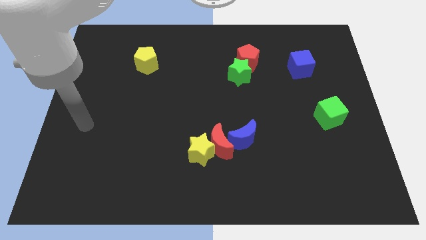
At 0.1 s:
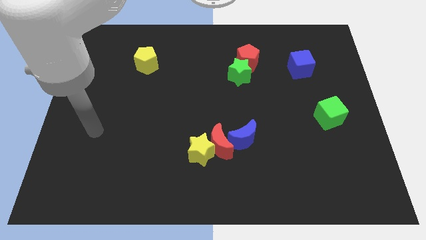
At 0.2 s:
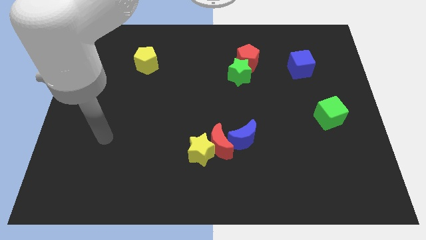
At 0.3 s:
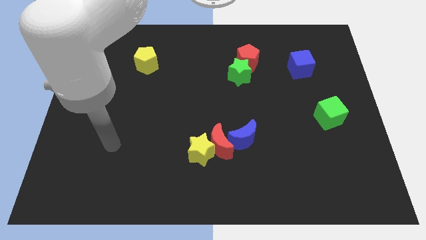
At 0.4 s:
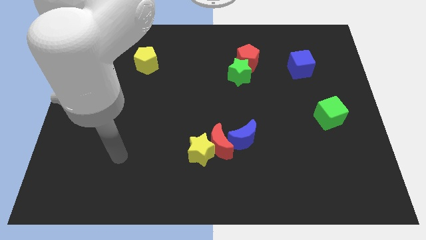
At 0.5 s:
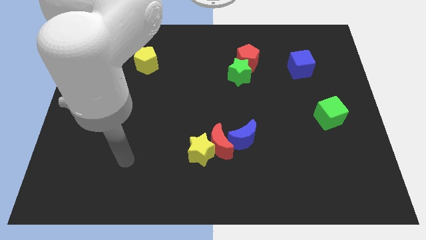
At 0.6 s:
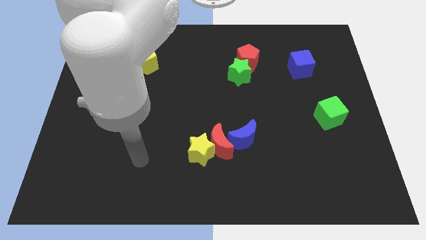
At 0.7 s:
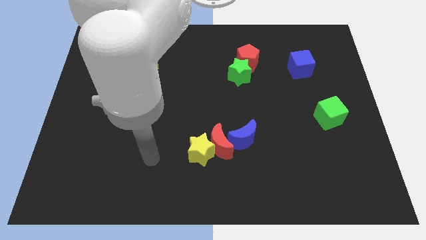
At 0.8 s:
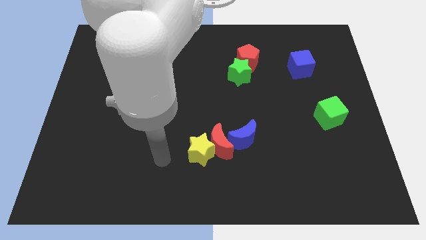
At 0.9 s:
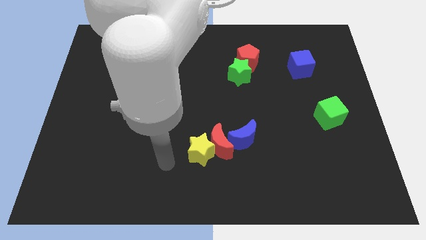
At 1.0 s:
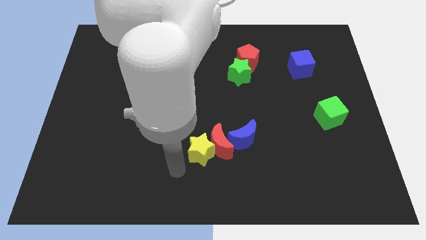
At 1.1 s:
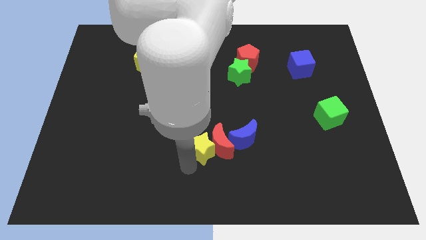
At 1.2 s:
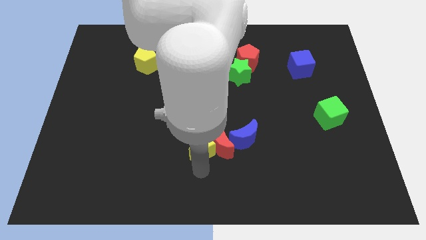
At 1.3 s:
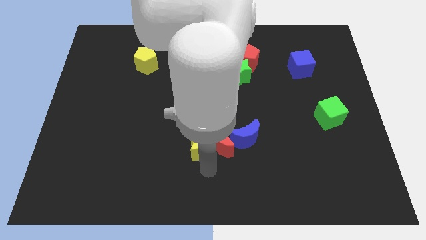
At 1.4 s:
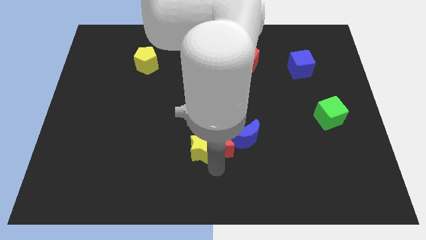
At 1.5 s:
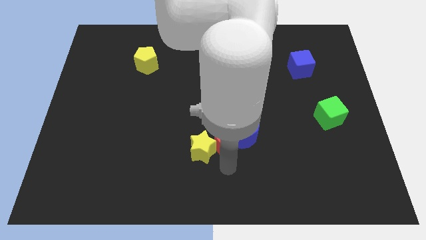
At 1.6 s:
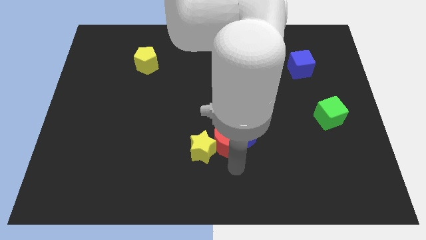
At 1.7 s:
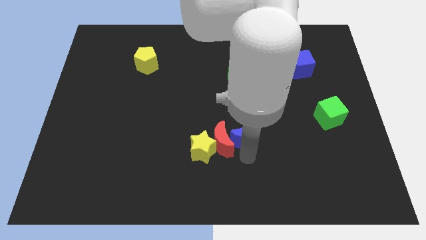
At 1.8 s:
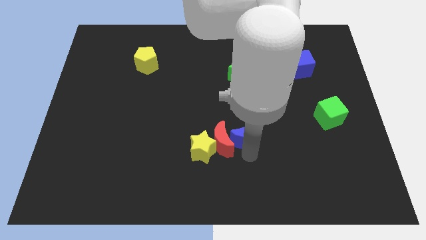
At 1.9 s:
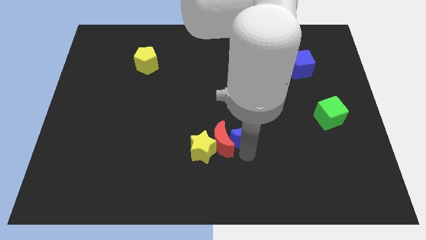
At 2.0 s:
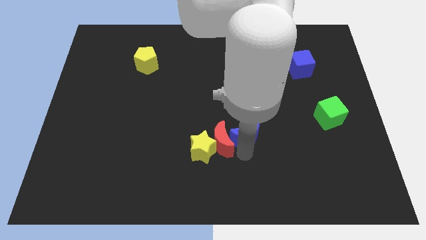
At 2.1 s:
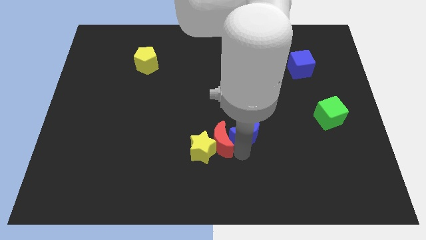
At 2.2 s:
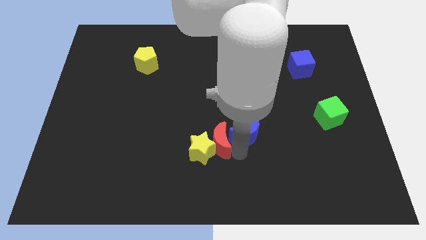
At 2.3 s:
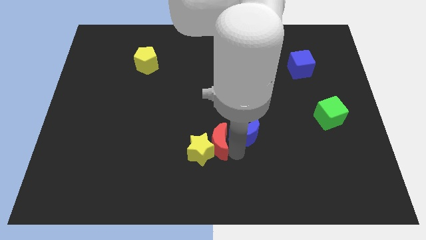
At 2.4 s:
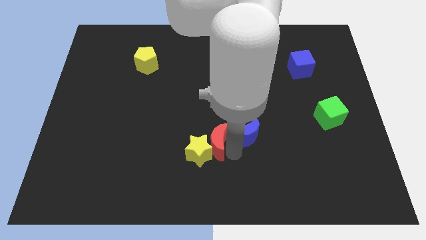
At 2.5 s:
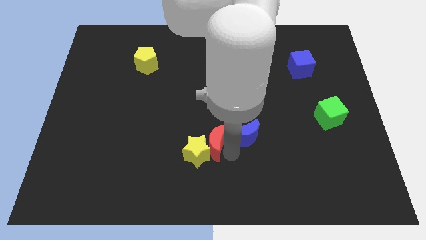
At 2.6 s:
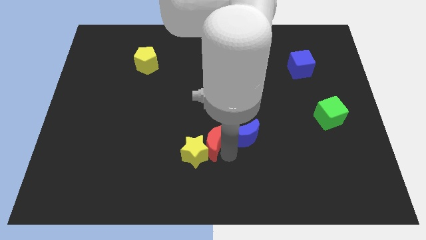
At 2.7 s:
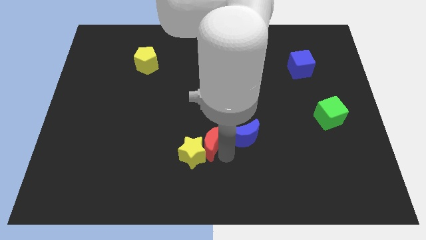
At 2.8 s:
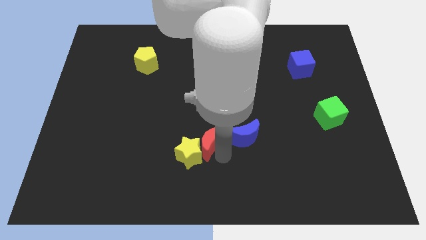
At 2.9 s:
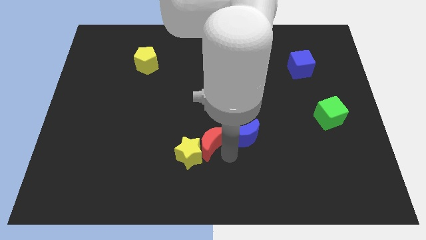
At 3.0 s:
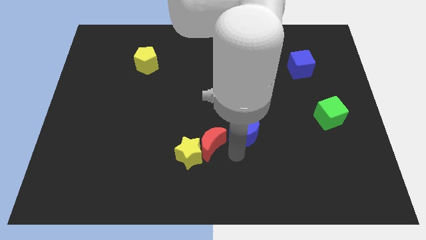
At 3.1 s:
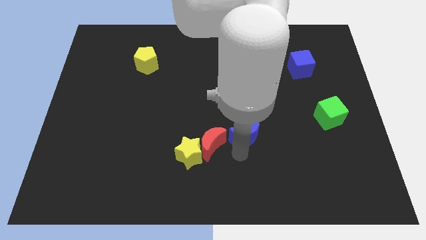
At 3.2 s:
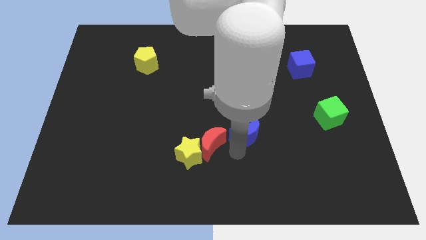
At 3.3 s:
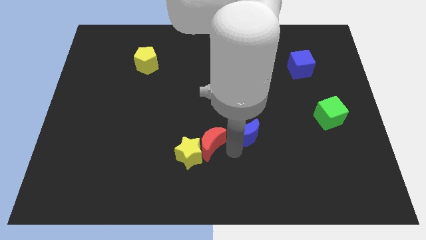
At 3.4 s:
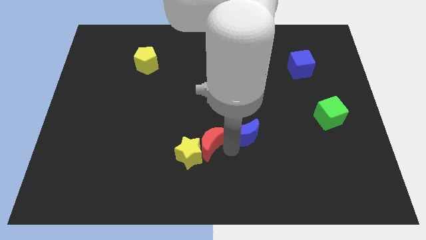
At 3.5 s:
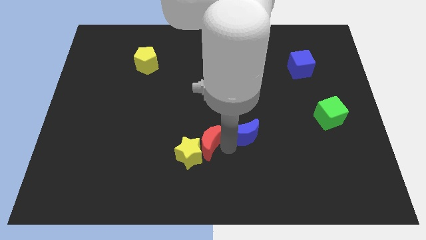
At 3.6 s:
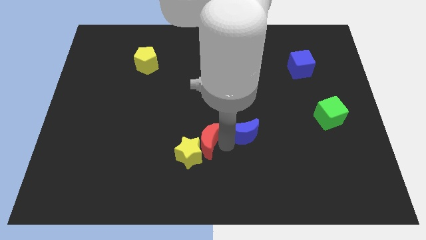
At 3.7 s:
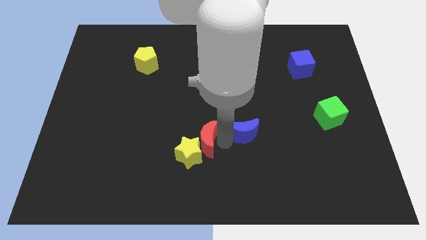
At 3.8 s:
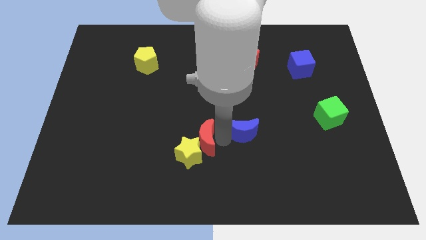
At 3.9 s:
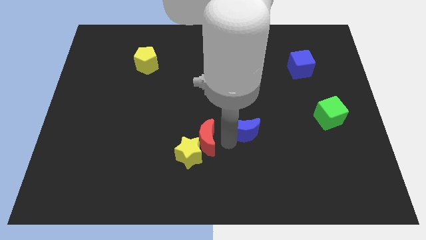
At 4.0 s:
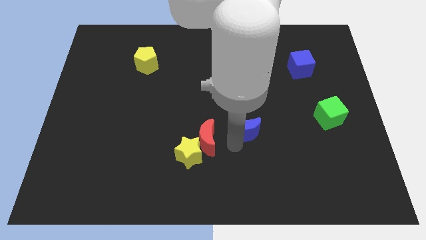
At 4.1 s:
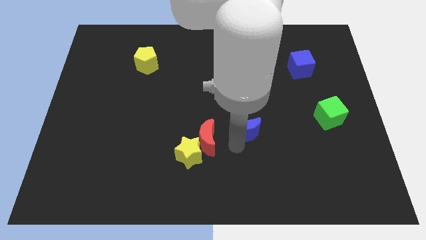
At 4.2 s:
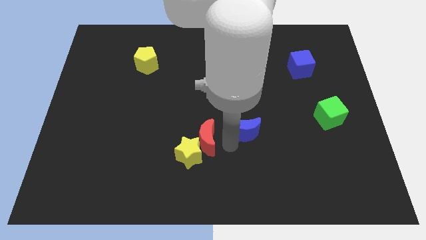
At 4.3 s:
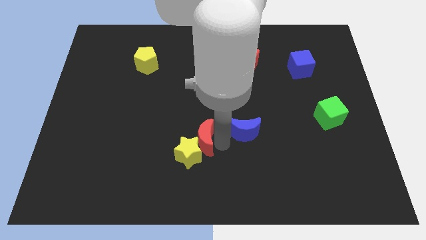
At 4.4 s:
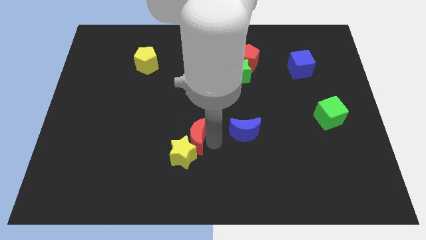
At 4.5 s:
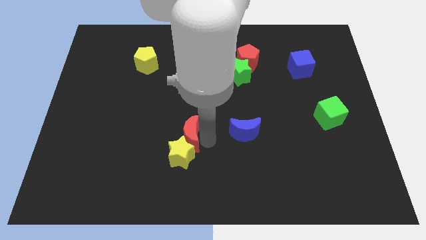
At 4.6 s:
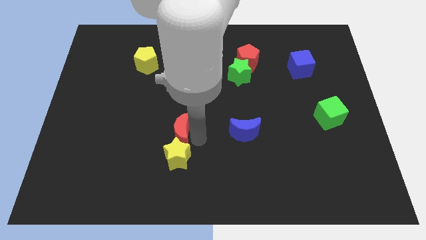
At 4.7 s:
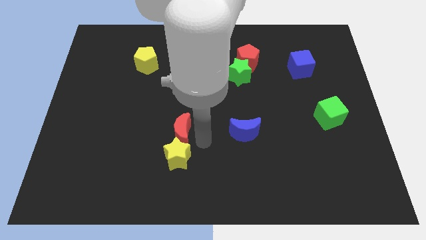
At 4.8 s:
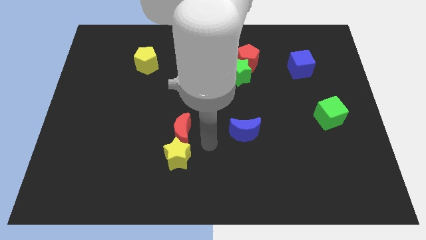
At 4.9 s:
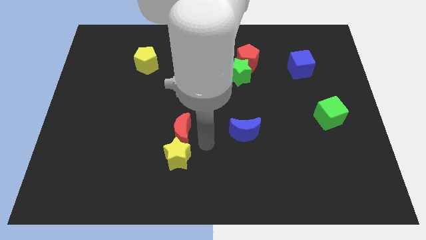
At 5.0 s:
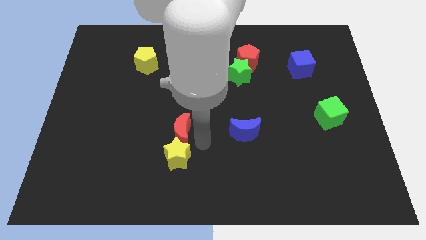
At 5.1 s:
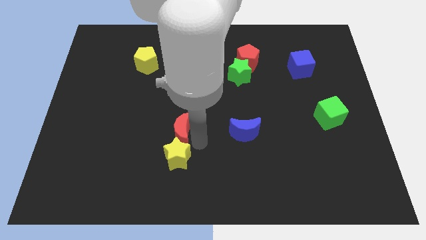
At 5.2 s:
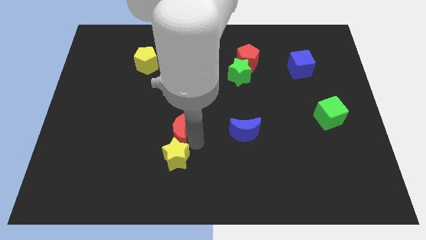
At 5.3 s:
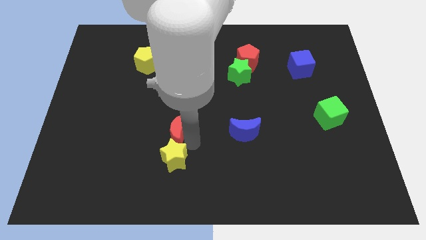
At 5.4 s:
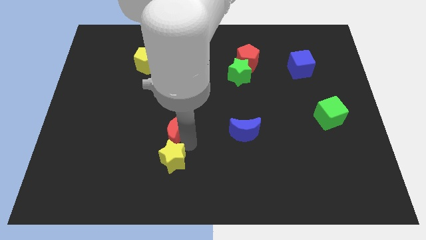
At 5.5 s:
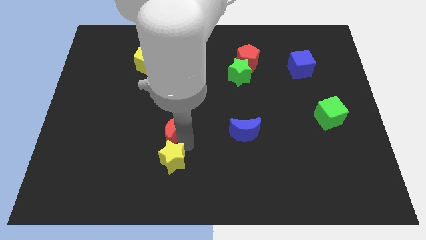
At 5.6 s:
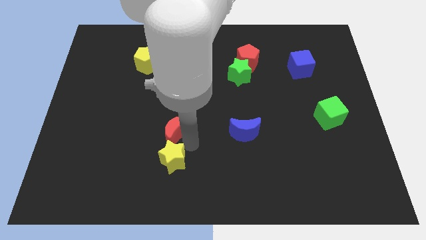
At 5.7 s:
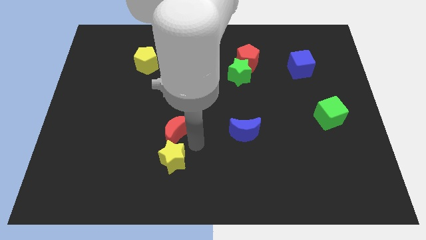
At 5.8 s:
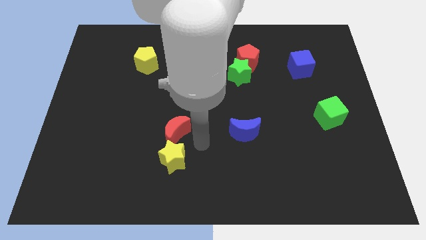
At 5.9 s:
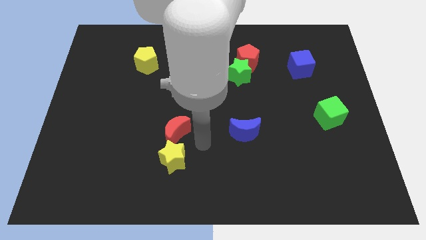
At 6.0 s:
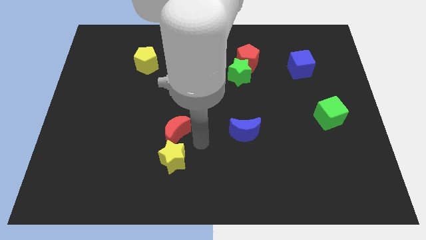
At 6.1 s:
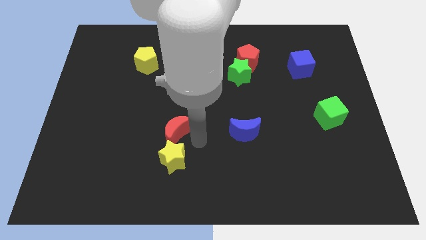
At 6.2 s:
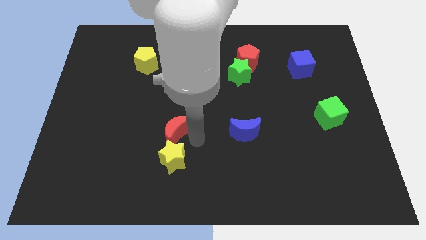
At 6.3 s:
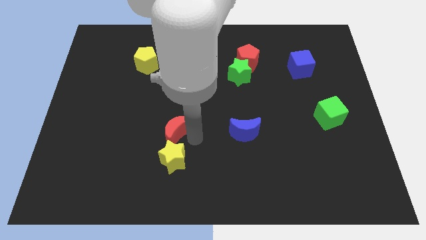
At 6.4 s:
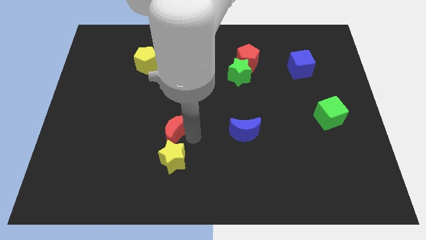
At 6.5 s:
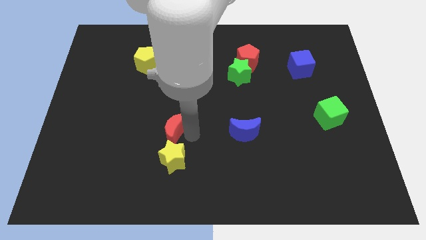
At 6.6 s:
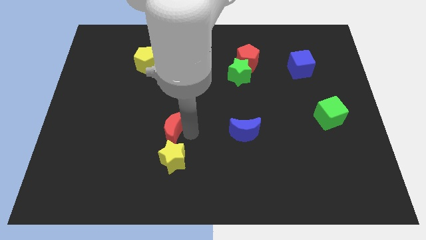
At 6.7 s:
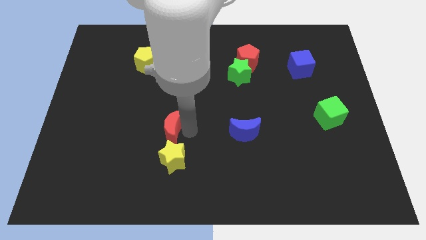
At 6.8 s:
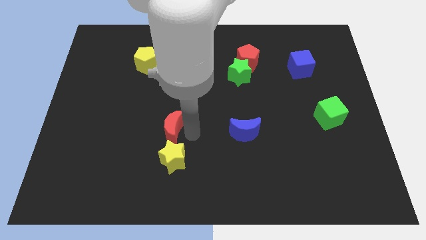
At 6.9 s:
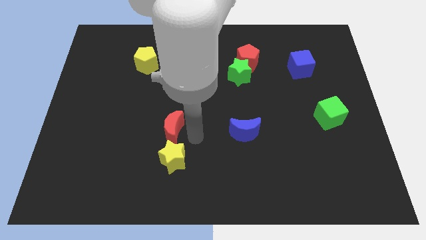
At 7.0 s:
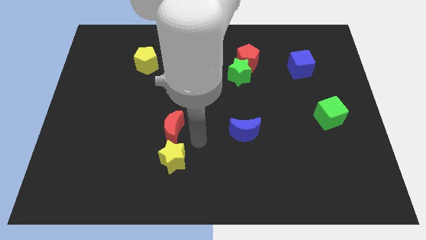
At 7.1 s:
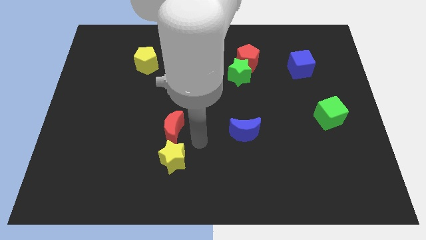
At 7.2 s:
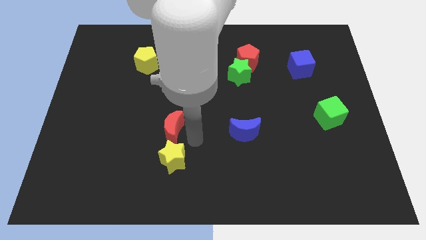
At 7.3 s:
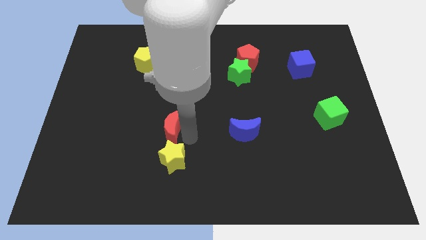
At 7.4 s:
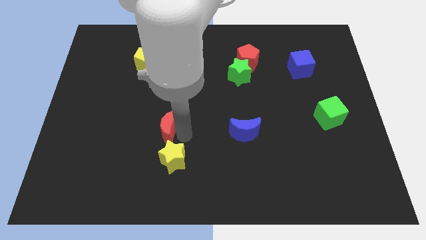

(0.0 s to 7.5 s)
separate the red moon from the yellow star and blue moon

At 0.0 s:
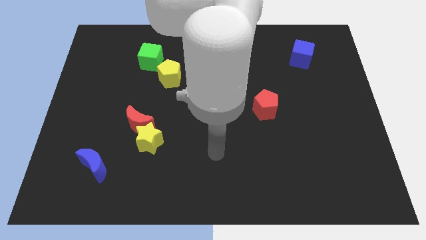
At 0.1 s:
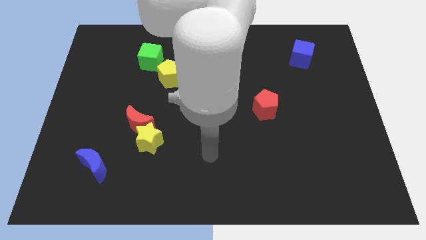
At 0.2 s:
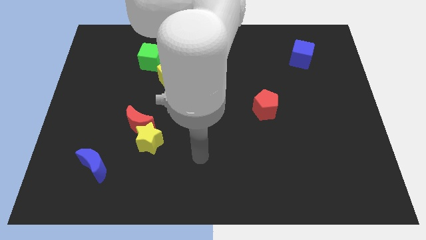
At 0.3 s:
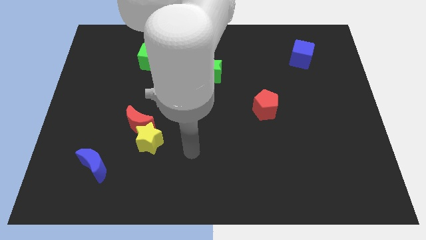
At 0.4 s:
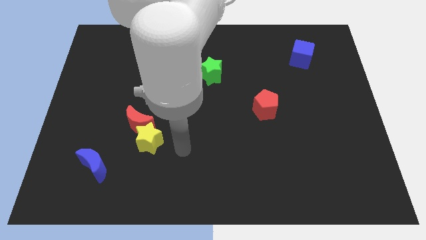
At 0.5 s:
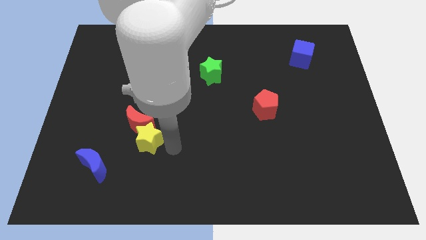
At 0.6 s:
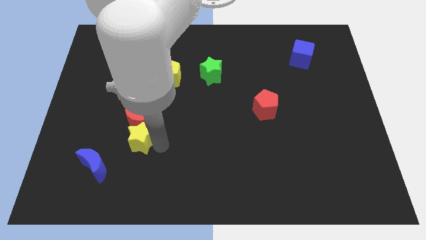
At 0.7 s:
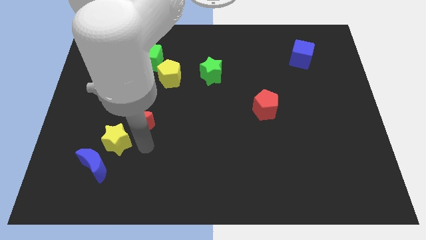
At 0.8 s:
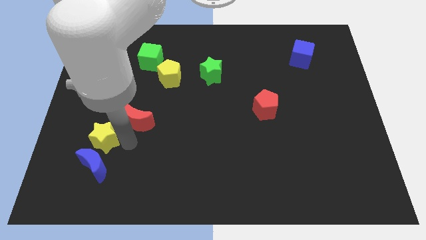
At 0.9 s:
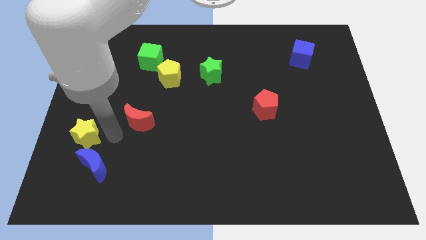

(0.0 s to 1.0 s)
pull the red moon apart from the yellow star

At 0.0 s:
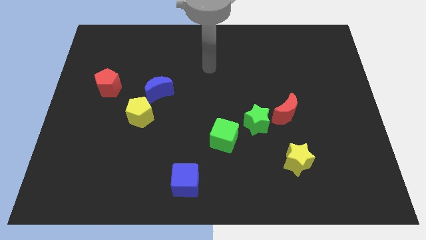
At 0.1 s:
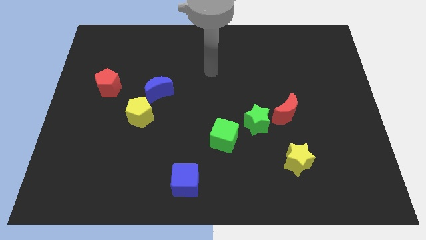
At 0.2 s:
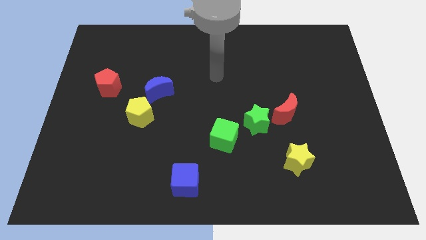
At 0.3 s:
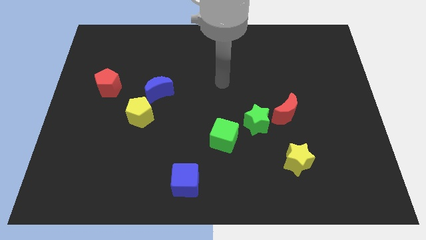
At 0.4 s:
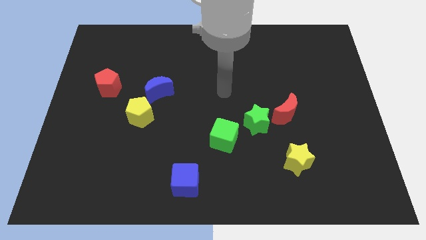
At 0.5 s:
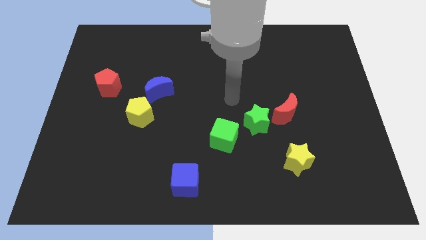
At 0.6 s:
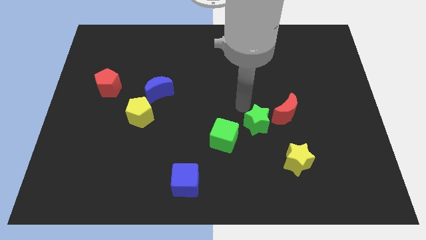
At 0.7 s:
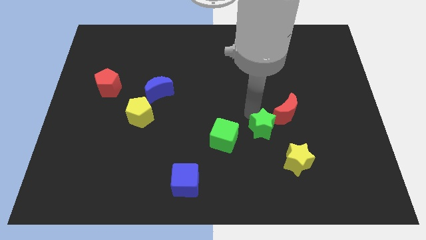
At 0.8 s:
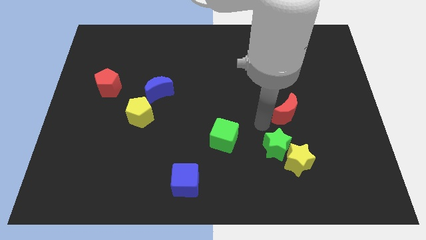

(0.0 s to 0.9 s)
separate the red moon from the green star
